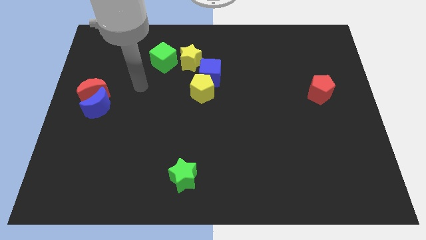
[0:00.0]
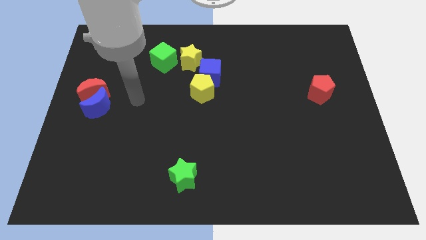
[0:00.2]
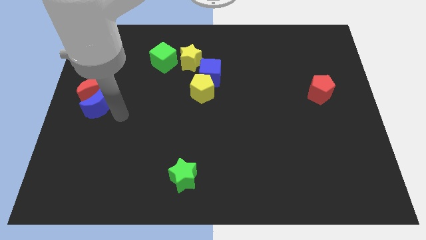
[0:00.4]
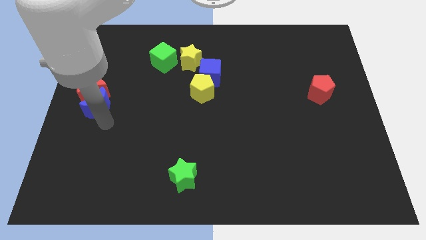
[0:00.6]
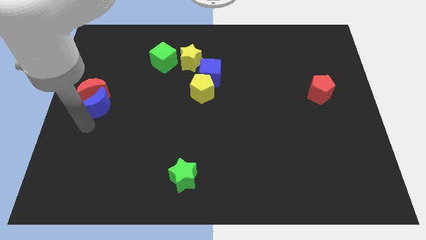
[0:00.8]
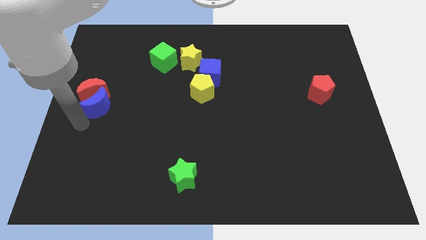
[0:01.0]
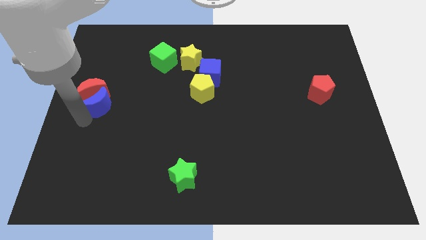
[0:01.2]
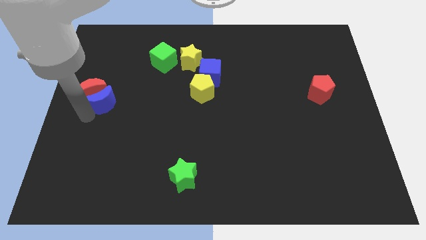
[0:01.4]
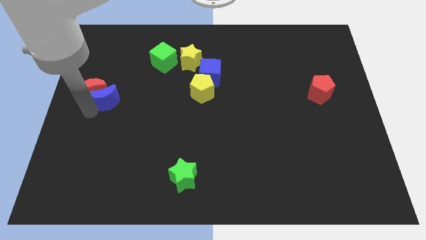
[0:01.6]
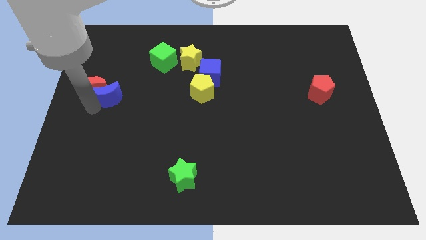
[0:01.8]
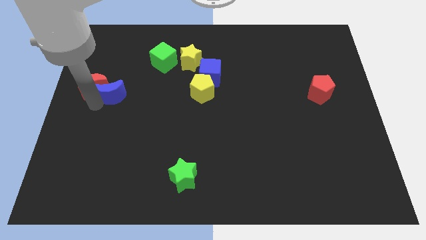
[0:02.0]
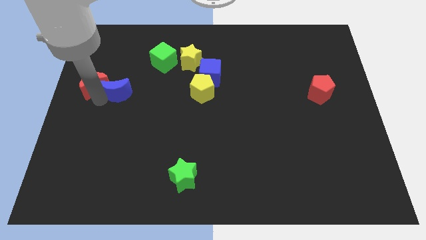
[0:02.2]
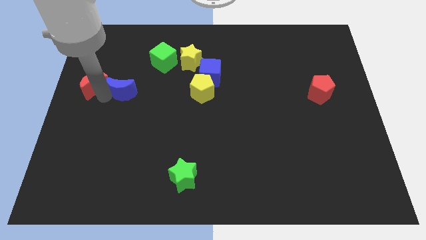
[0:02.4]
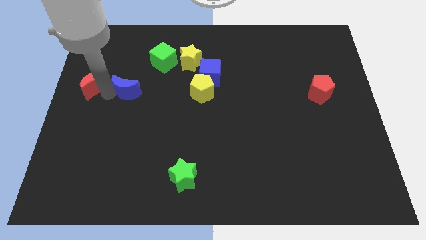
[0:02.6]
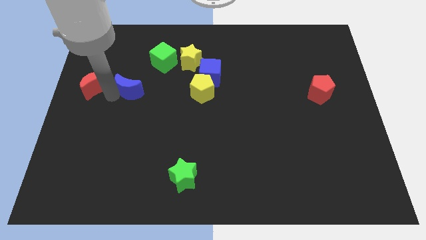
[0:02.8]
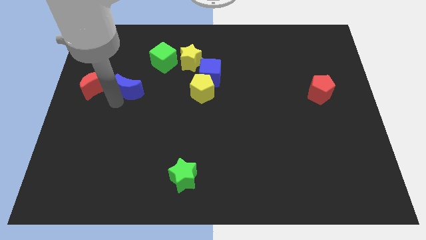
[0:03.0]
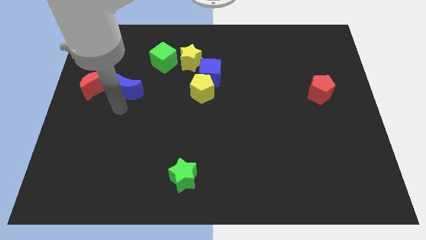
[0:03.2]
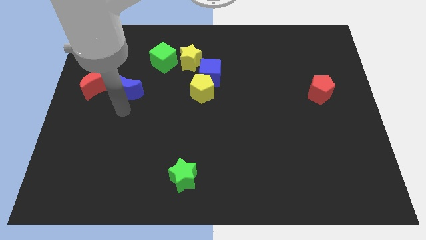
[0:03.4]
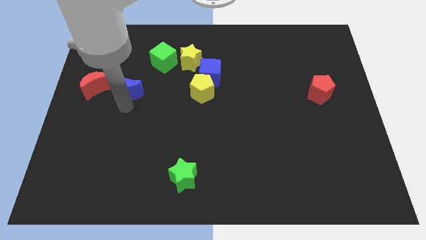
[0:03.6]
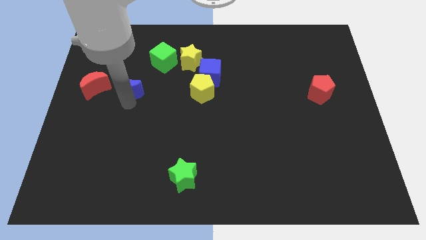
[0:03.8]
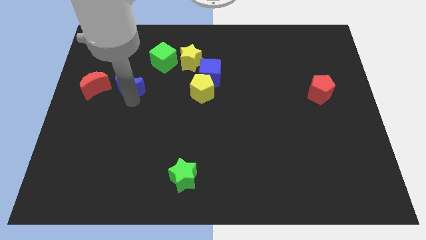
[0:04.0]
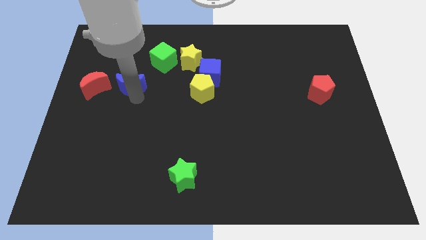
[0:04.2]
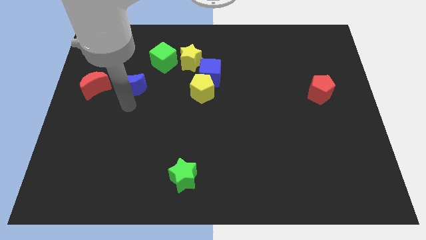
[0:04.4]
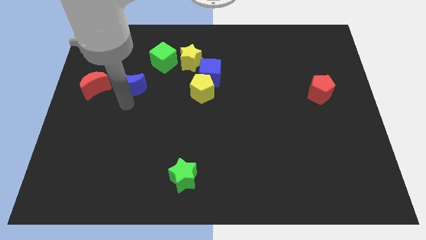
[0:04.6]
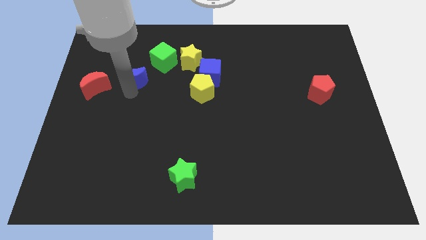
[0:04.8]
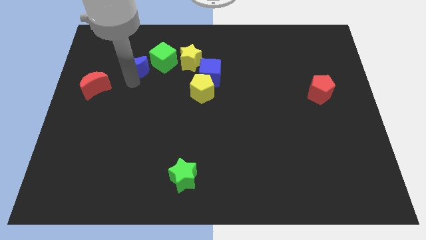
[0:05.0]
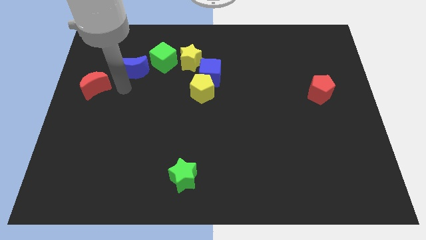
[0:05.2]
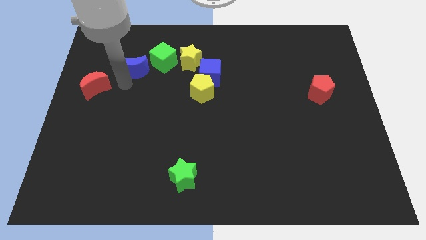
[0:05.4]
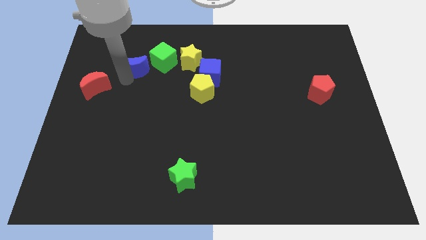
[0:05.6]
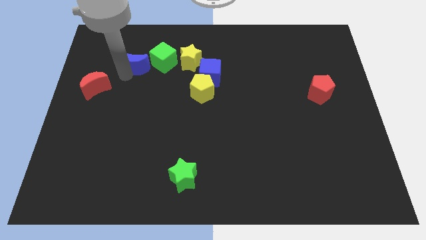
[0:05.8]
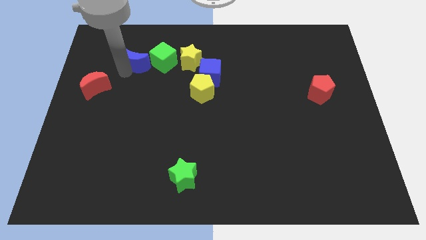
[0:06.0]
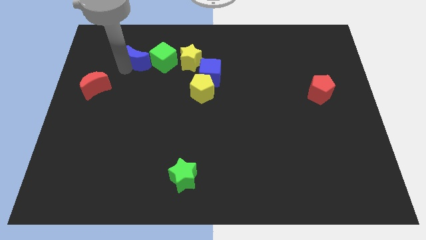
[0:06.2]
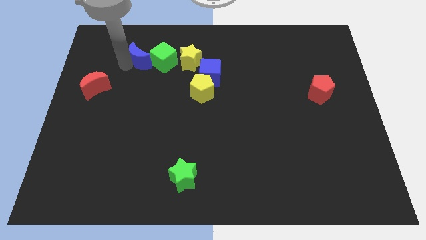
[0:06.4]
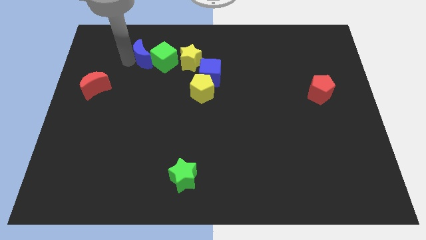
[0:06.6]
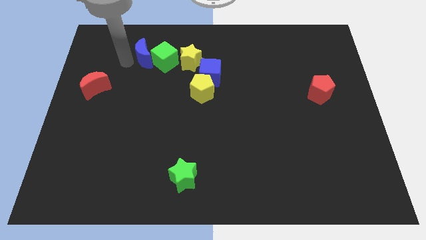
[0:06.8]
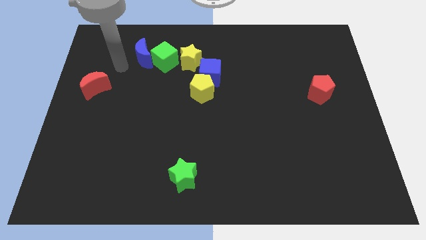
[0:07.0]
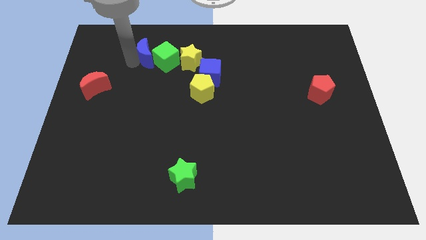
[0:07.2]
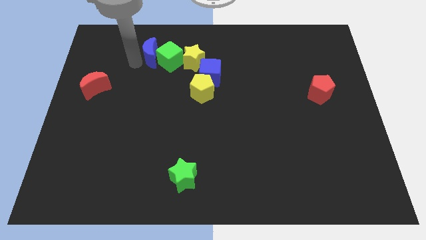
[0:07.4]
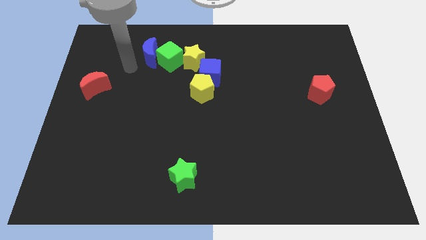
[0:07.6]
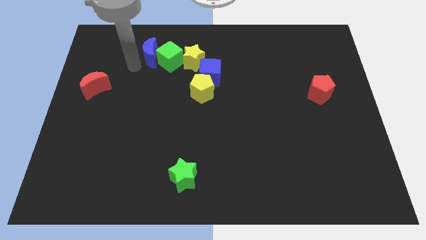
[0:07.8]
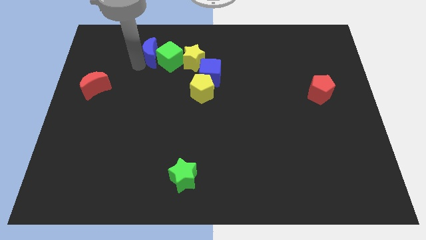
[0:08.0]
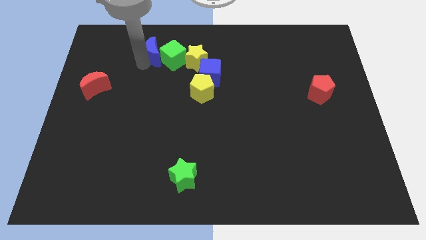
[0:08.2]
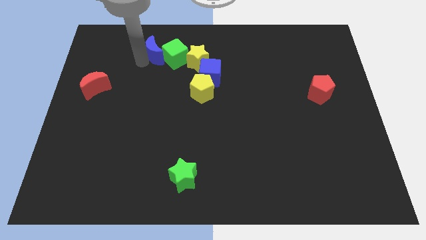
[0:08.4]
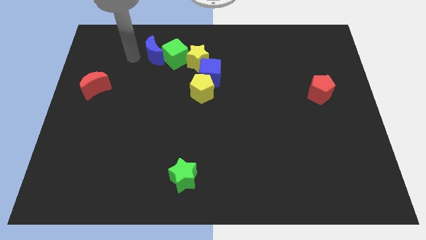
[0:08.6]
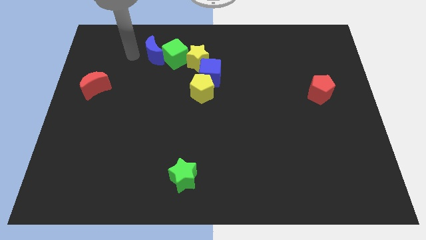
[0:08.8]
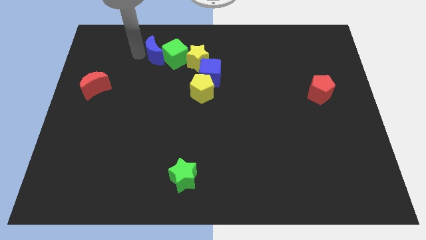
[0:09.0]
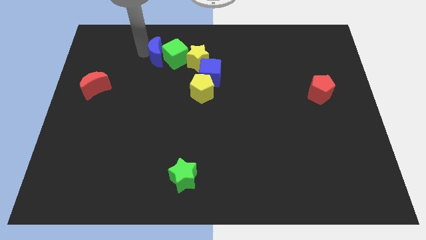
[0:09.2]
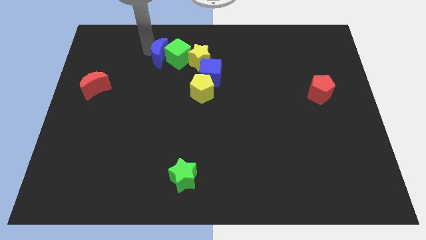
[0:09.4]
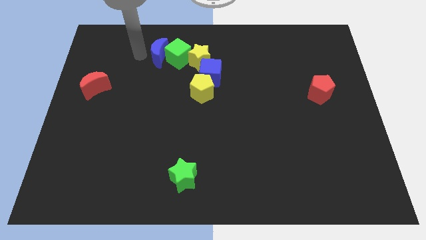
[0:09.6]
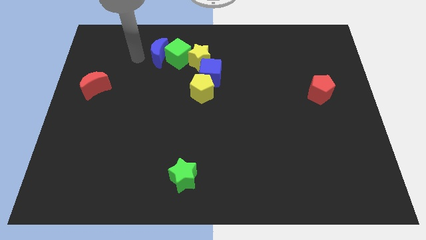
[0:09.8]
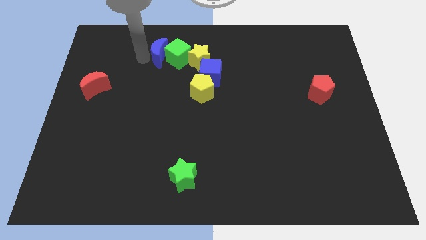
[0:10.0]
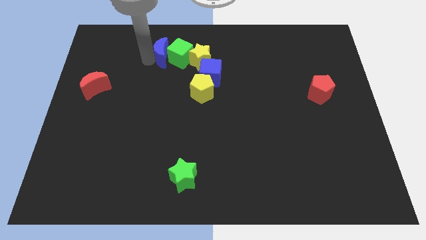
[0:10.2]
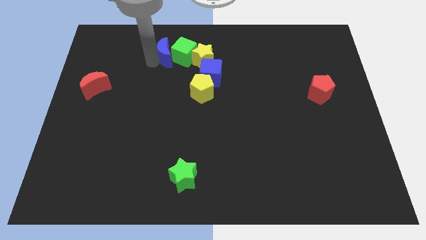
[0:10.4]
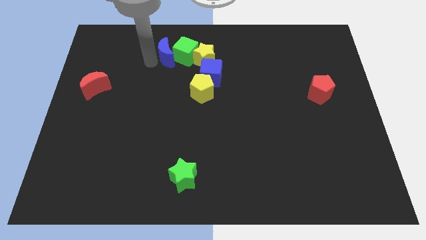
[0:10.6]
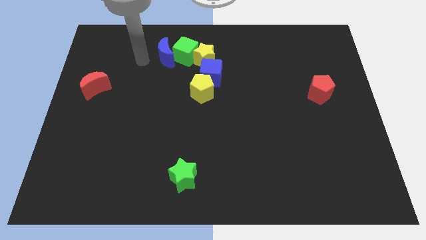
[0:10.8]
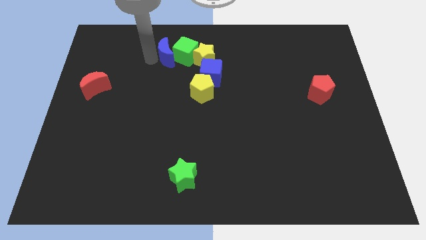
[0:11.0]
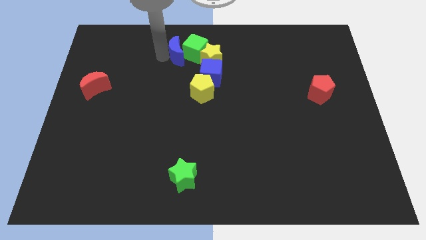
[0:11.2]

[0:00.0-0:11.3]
push the blue moon diagonally up and to the left of the blue cube

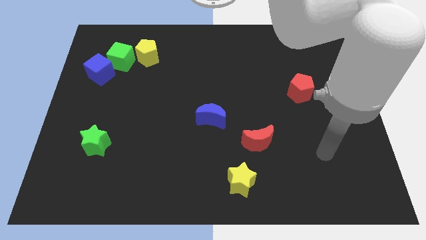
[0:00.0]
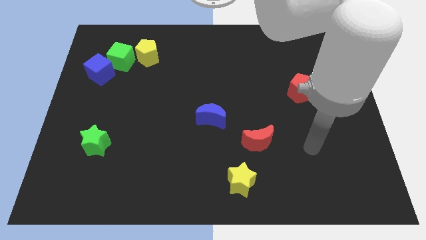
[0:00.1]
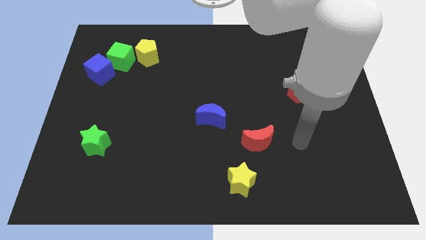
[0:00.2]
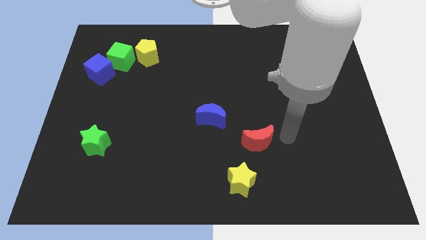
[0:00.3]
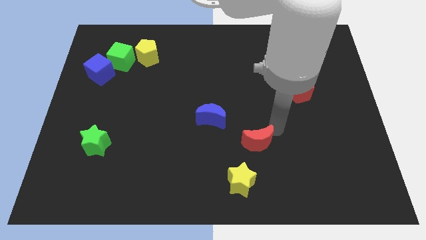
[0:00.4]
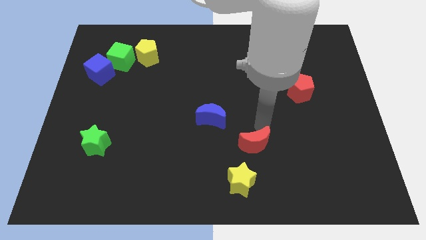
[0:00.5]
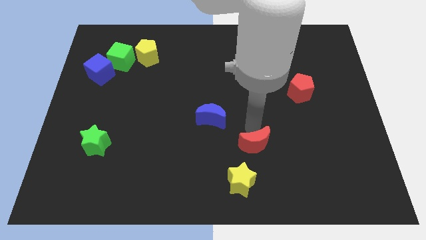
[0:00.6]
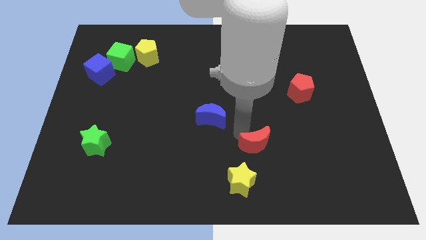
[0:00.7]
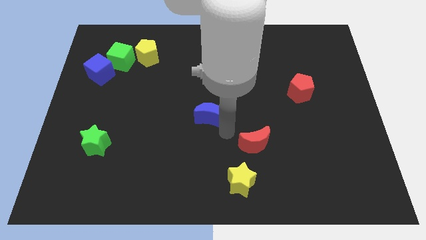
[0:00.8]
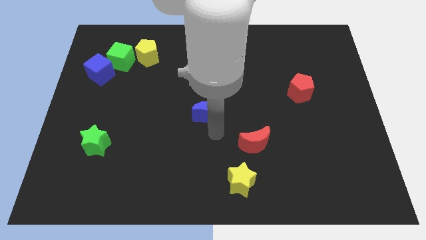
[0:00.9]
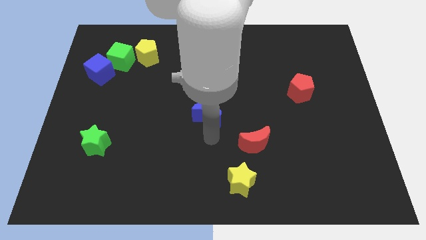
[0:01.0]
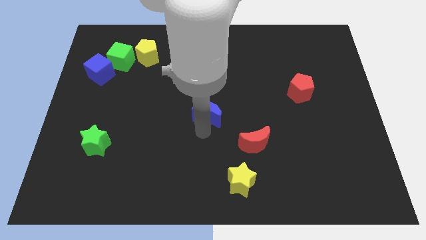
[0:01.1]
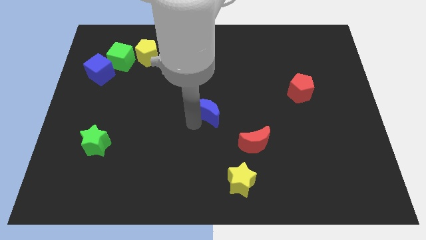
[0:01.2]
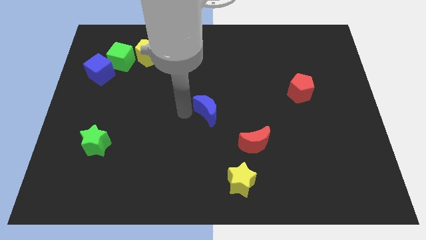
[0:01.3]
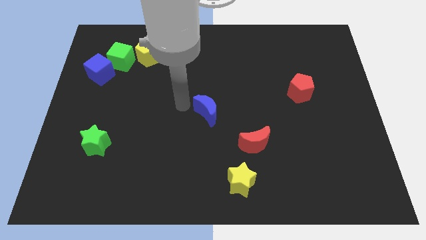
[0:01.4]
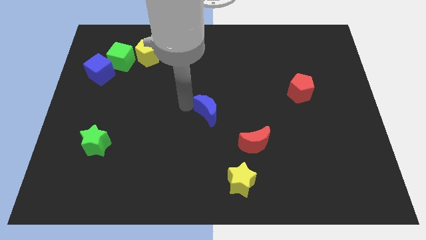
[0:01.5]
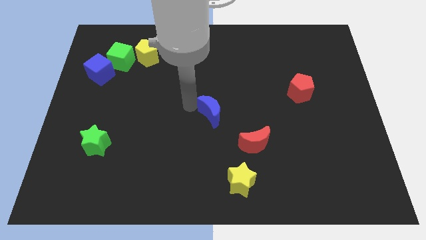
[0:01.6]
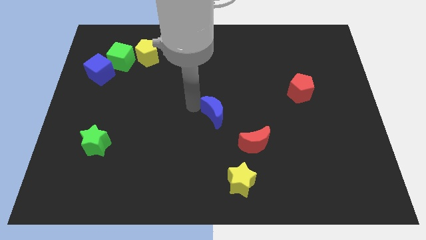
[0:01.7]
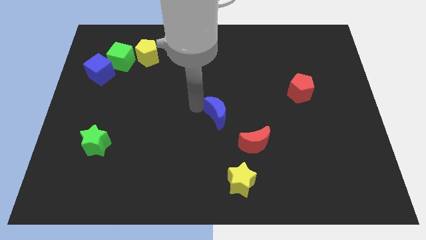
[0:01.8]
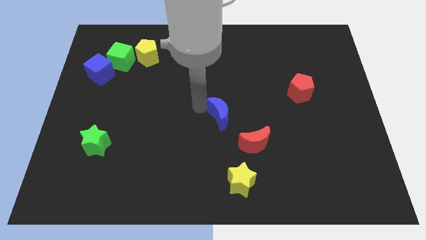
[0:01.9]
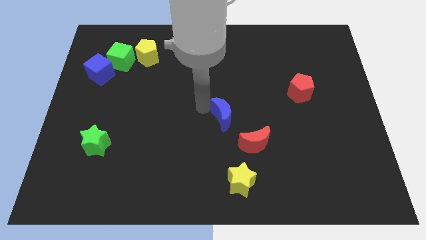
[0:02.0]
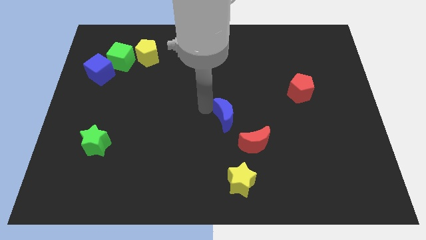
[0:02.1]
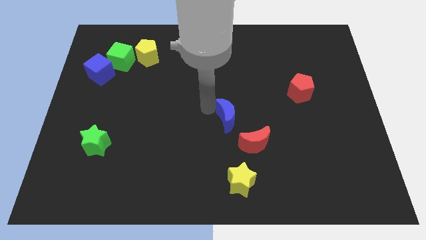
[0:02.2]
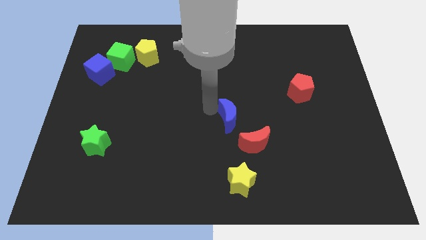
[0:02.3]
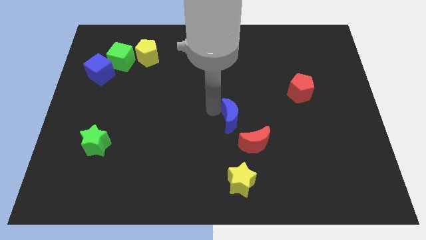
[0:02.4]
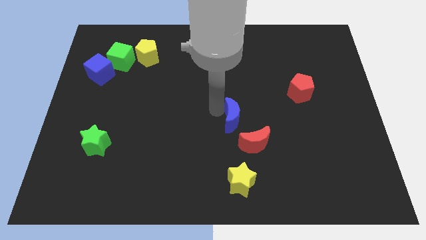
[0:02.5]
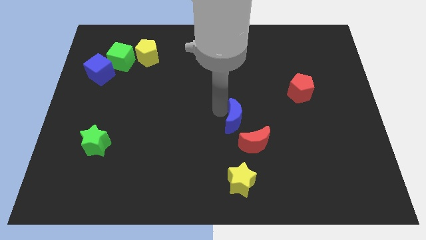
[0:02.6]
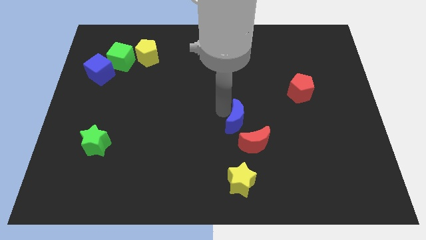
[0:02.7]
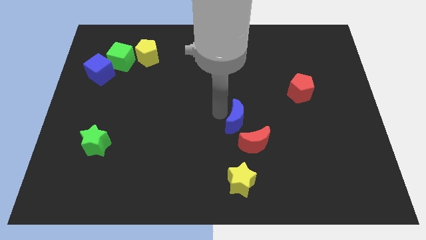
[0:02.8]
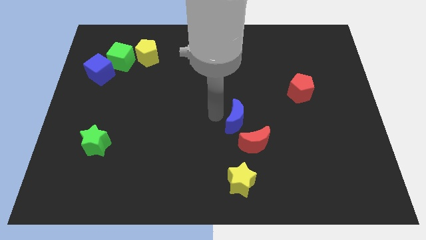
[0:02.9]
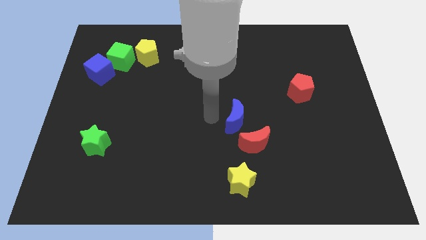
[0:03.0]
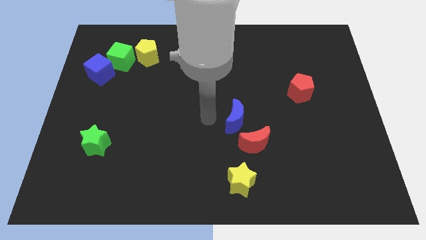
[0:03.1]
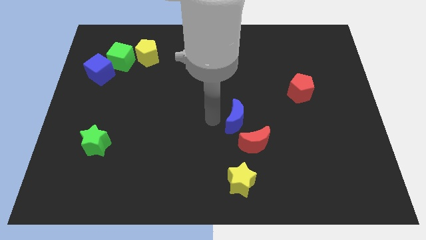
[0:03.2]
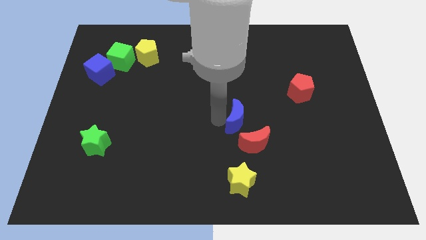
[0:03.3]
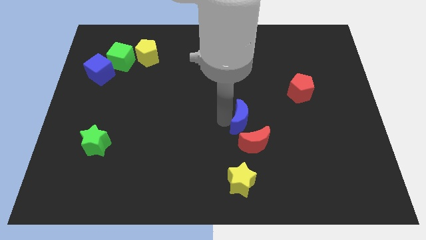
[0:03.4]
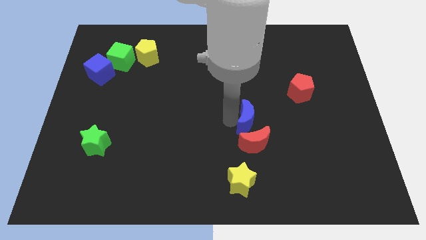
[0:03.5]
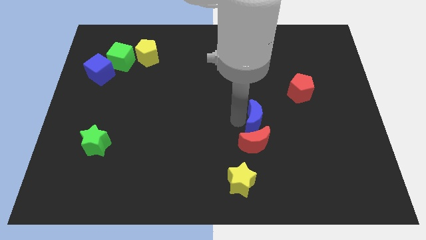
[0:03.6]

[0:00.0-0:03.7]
slide the blue moon diagonally up and to the right of the red moon
